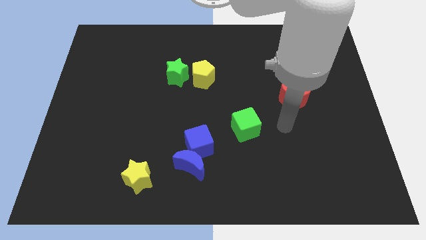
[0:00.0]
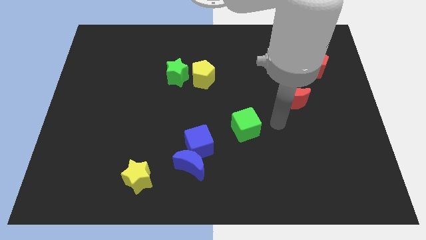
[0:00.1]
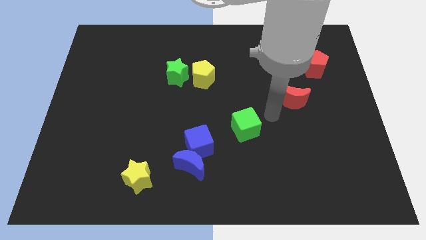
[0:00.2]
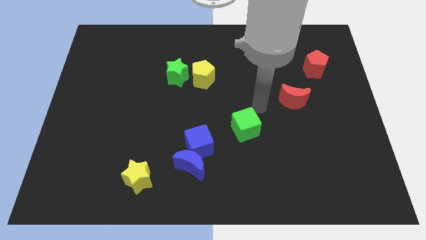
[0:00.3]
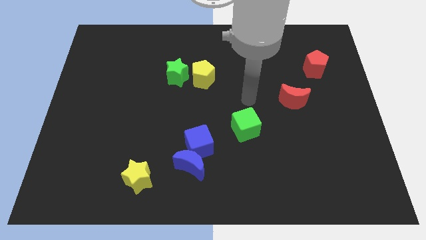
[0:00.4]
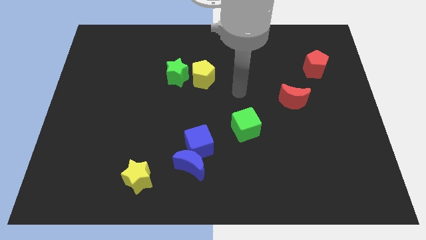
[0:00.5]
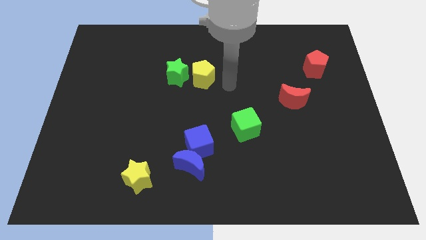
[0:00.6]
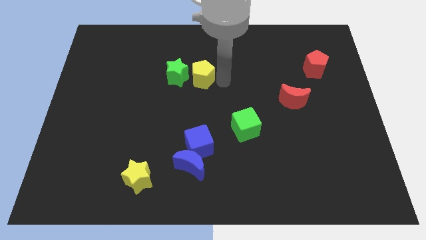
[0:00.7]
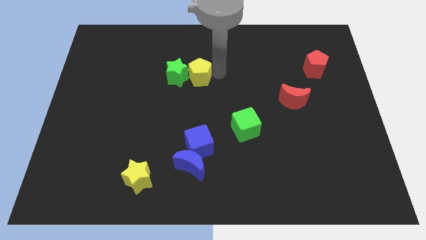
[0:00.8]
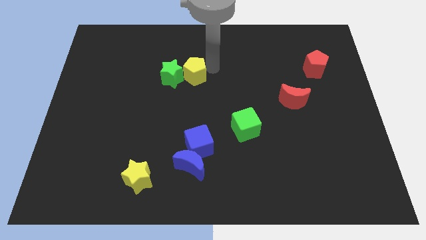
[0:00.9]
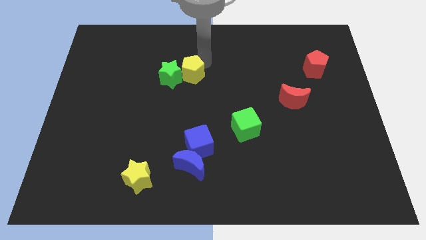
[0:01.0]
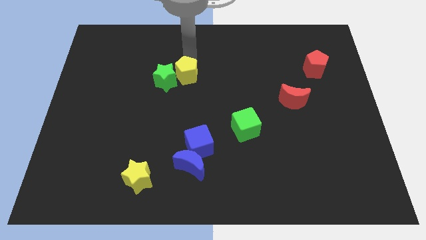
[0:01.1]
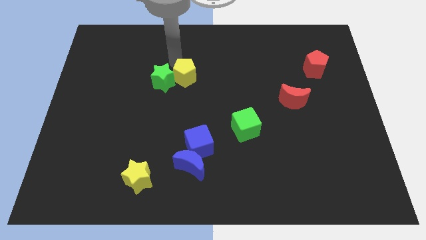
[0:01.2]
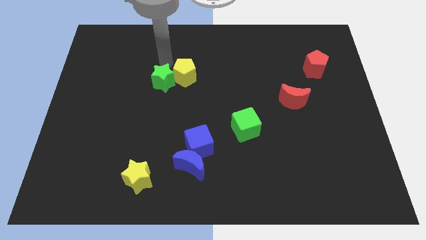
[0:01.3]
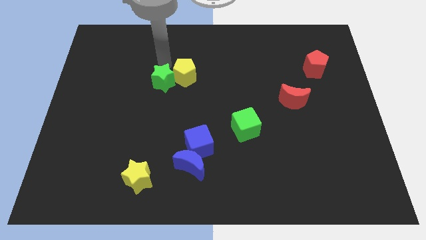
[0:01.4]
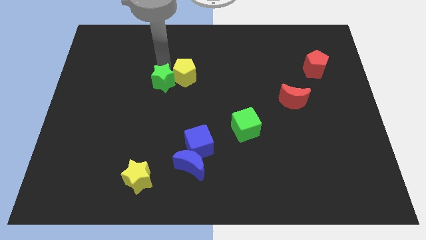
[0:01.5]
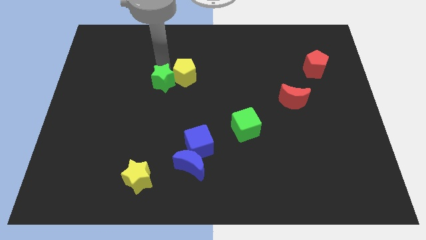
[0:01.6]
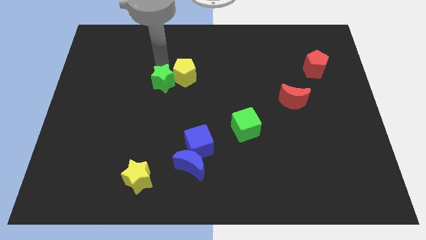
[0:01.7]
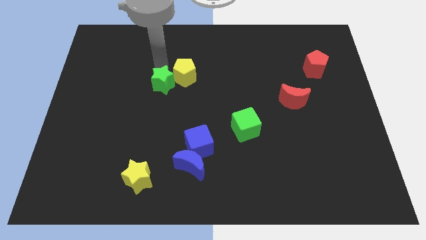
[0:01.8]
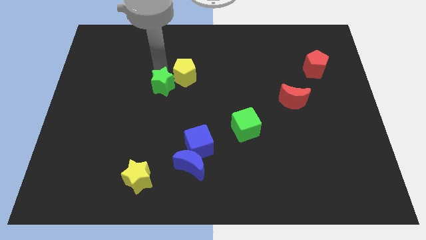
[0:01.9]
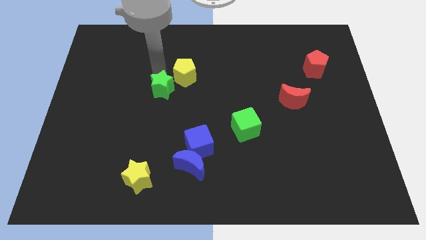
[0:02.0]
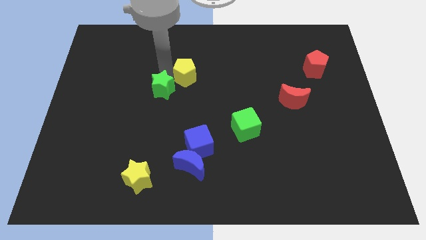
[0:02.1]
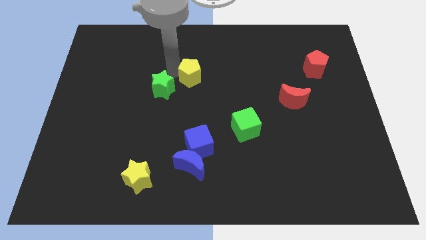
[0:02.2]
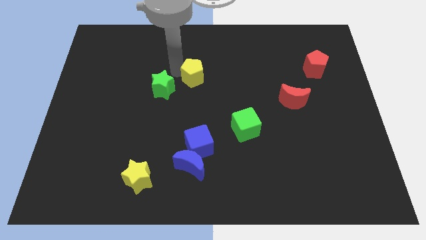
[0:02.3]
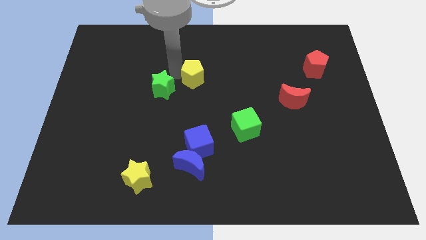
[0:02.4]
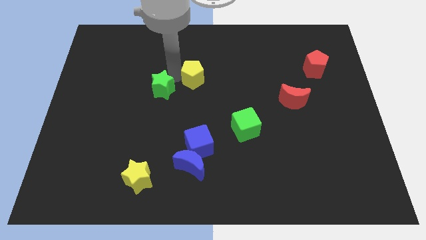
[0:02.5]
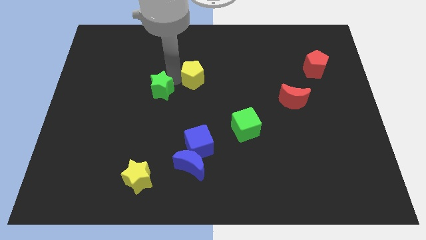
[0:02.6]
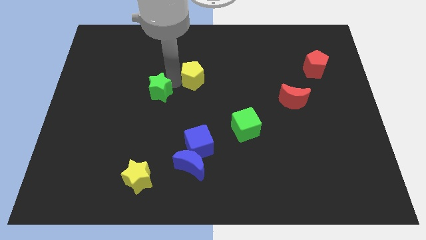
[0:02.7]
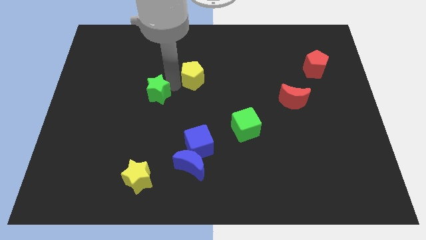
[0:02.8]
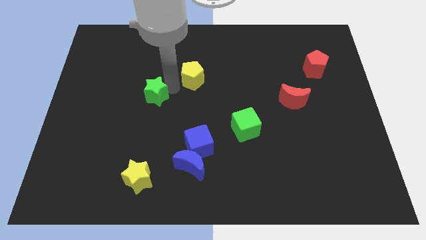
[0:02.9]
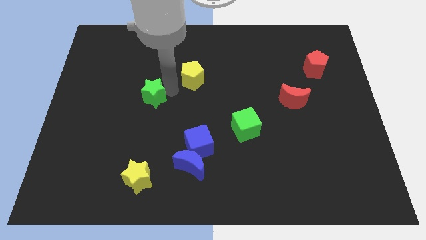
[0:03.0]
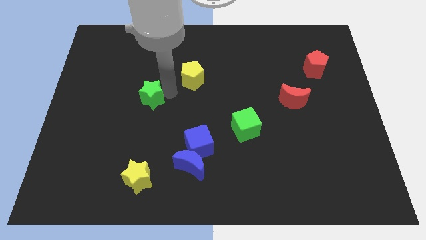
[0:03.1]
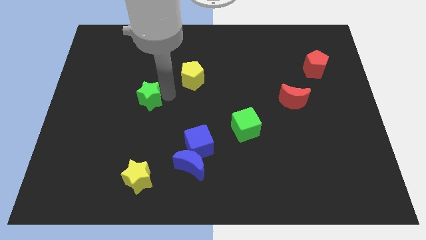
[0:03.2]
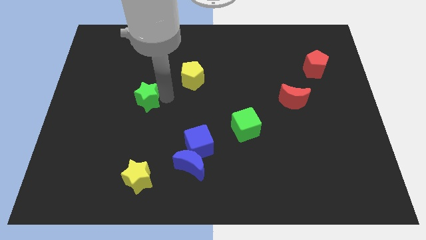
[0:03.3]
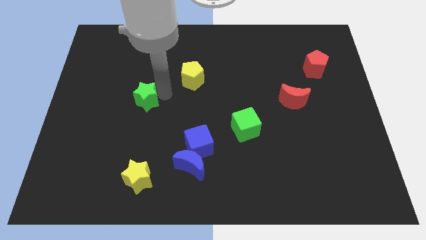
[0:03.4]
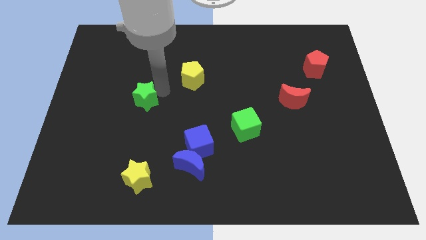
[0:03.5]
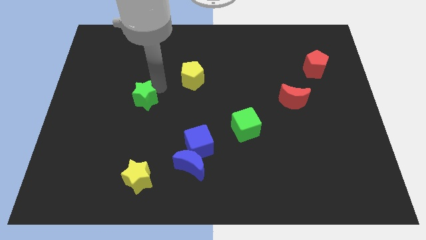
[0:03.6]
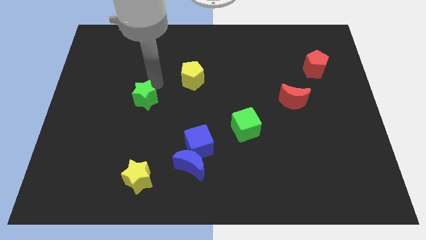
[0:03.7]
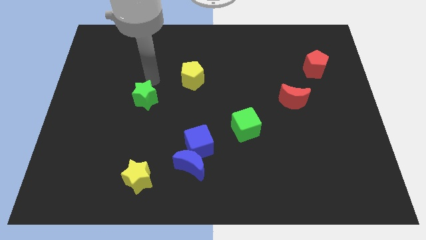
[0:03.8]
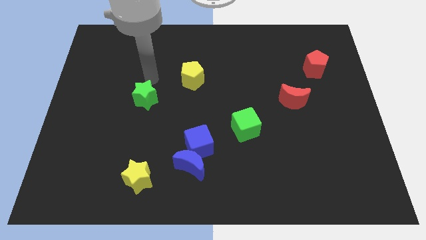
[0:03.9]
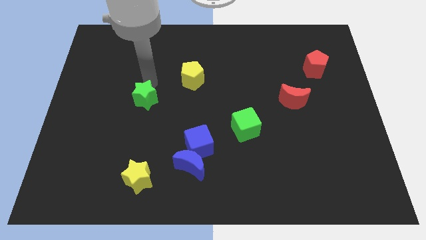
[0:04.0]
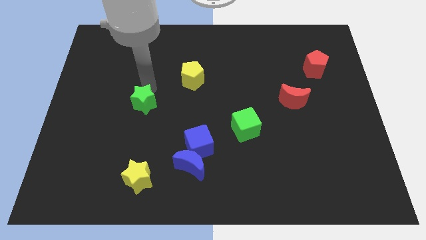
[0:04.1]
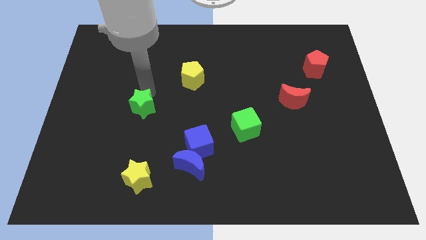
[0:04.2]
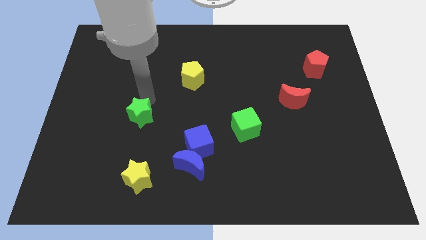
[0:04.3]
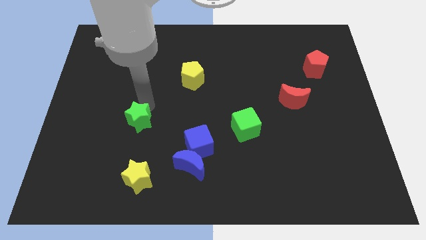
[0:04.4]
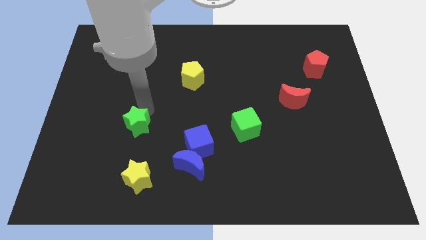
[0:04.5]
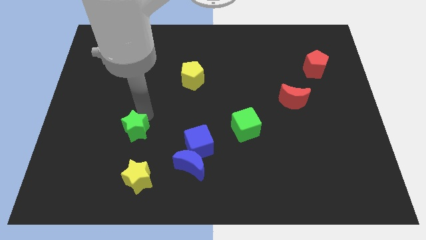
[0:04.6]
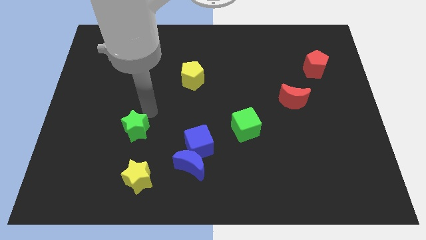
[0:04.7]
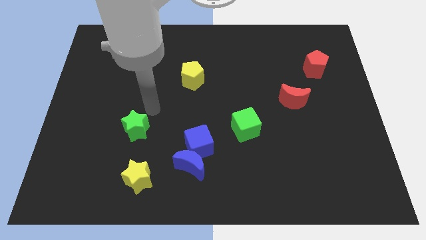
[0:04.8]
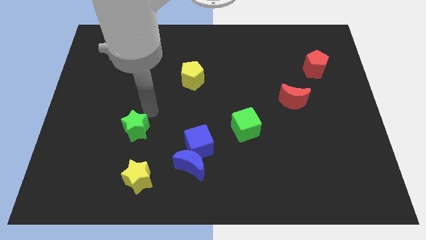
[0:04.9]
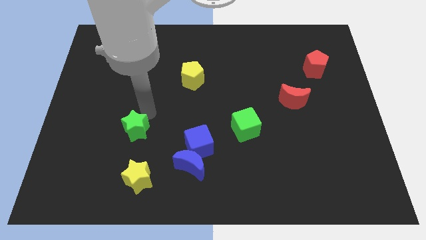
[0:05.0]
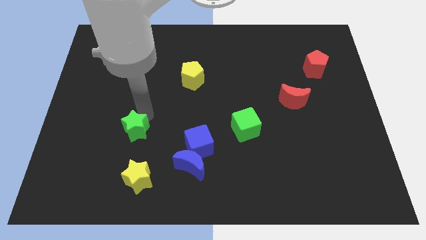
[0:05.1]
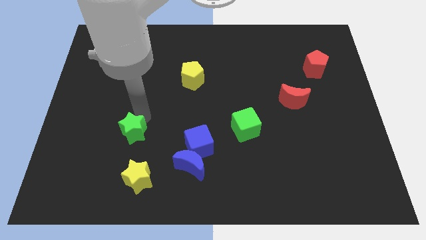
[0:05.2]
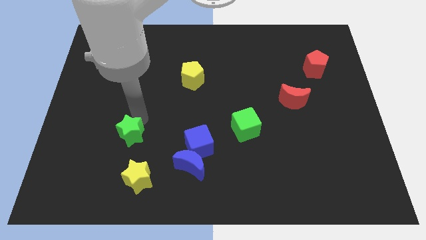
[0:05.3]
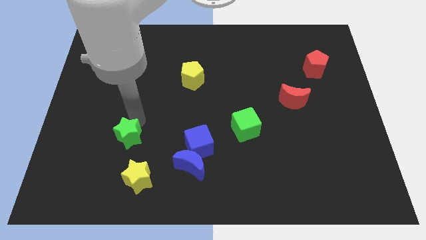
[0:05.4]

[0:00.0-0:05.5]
slide the green star diagonally up and to the left of the yellow star

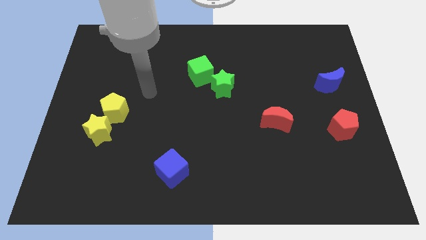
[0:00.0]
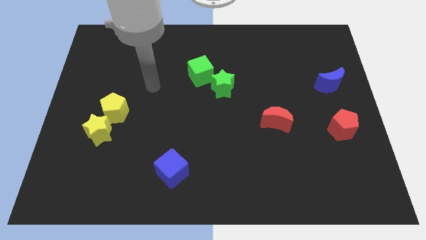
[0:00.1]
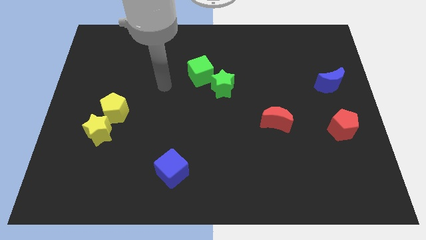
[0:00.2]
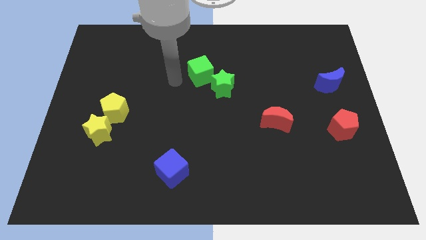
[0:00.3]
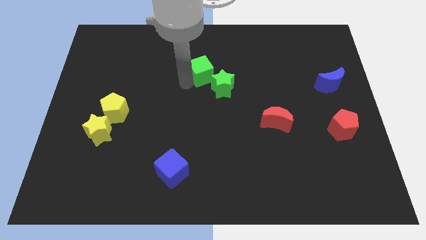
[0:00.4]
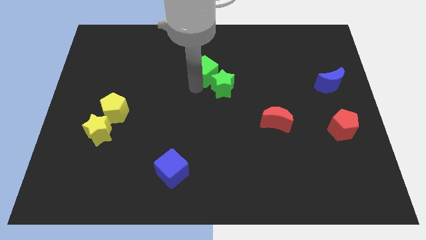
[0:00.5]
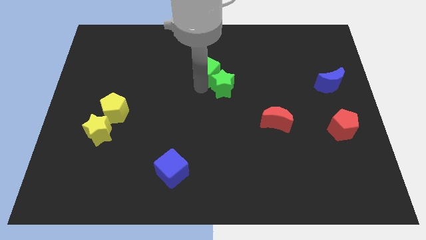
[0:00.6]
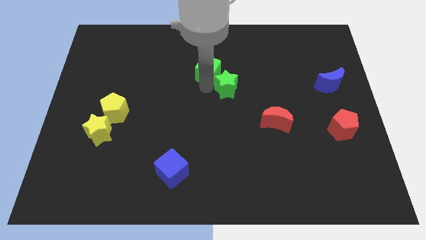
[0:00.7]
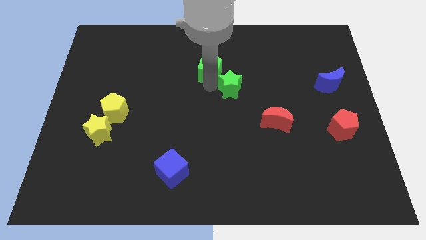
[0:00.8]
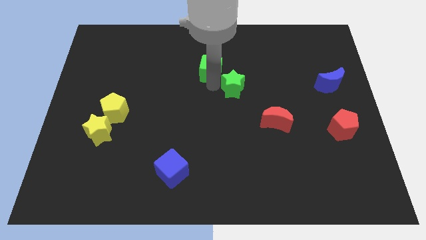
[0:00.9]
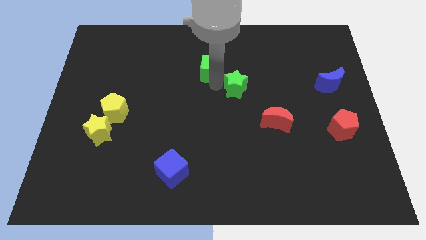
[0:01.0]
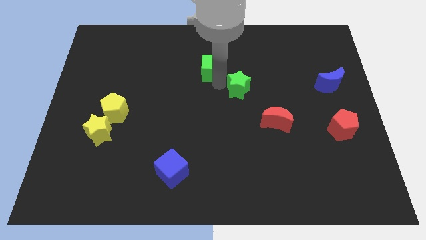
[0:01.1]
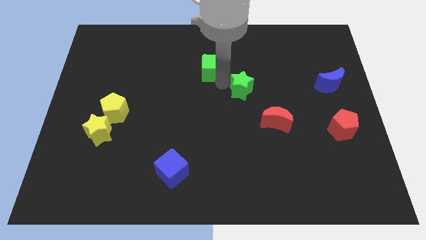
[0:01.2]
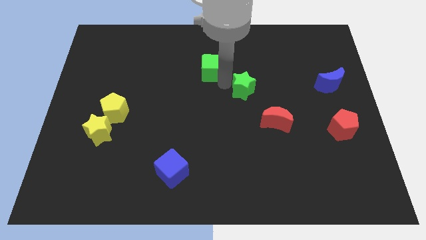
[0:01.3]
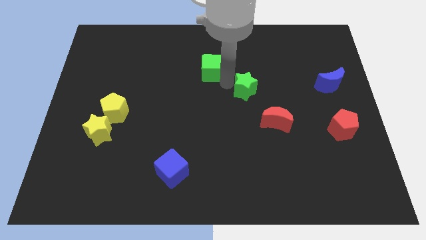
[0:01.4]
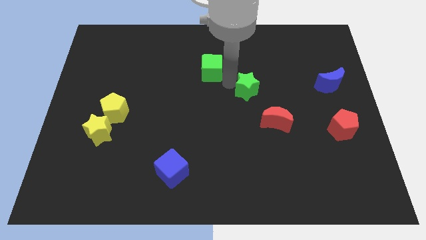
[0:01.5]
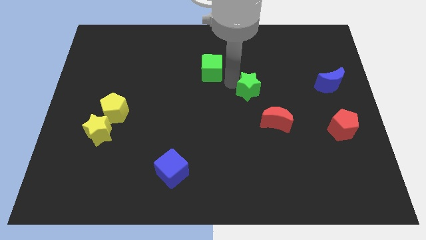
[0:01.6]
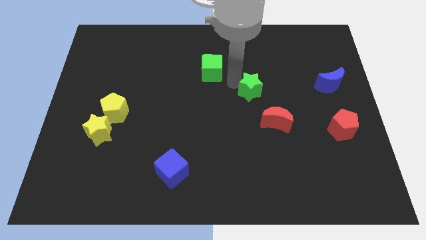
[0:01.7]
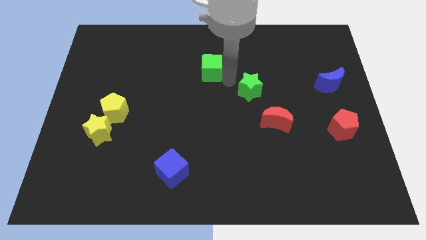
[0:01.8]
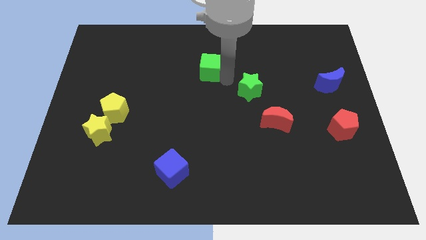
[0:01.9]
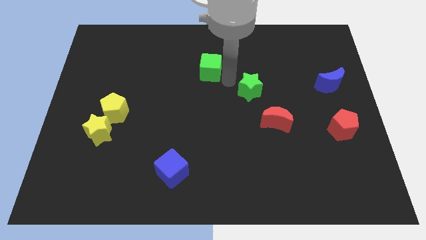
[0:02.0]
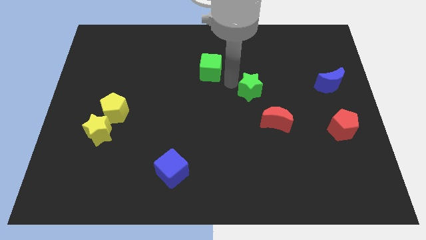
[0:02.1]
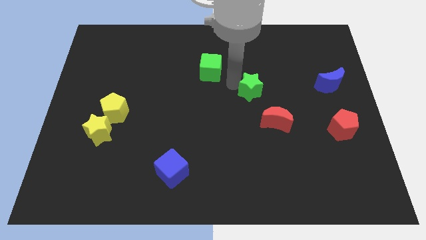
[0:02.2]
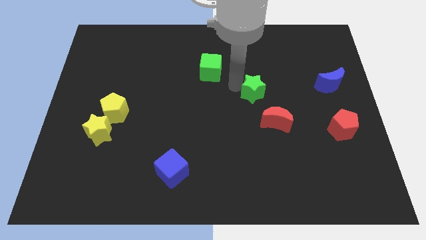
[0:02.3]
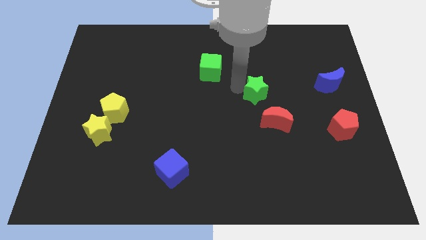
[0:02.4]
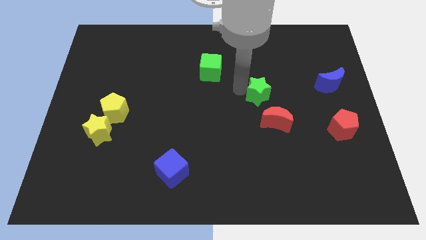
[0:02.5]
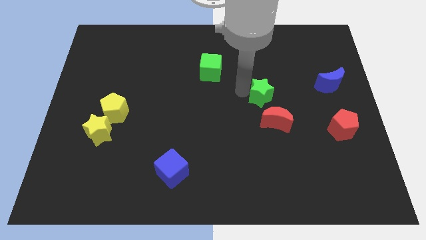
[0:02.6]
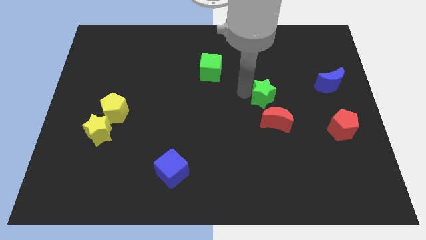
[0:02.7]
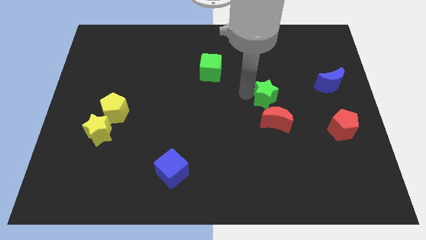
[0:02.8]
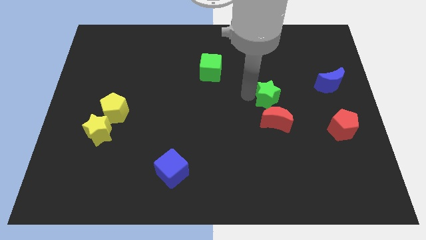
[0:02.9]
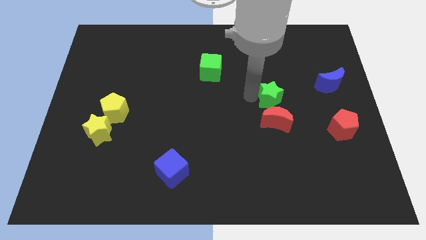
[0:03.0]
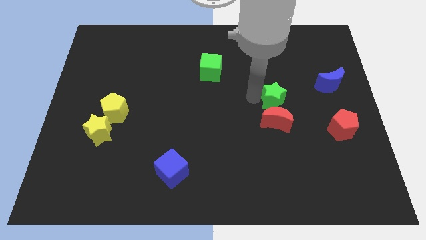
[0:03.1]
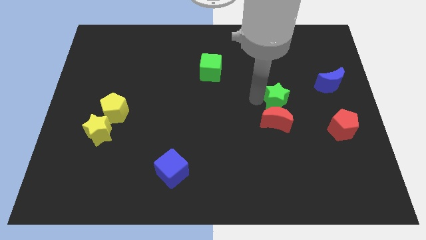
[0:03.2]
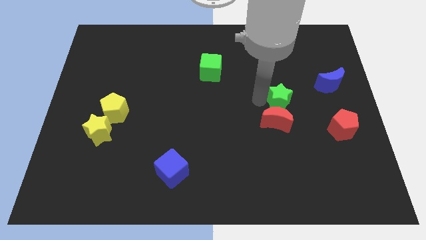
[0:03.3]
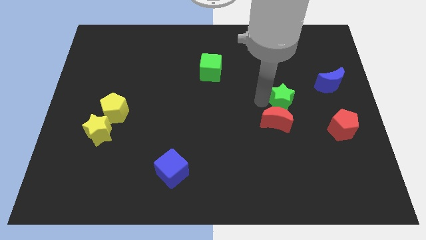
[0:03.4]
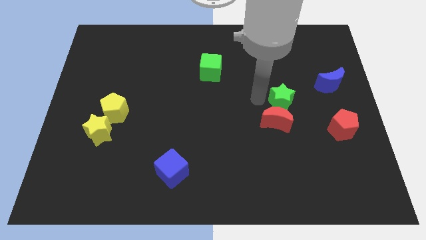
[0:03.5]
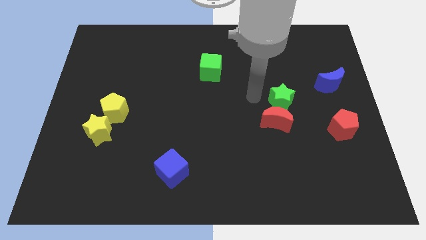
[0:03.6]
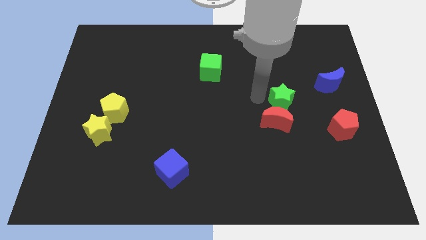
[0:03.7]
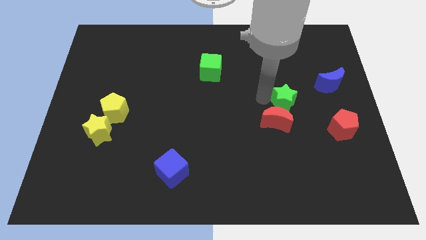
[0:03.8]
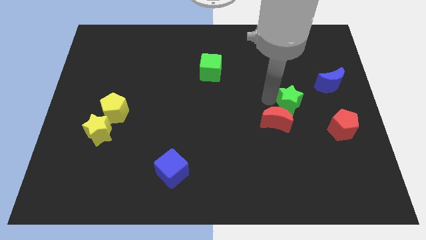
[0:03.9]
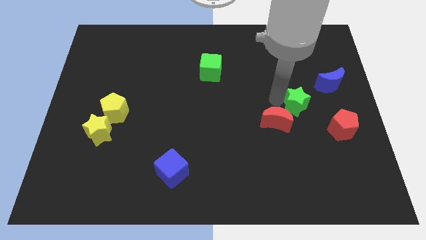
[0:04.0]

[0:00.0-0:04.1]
move the green star to the top left of the red pentagon
